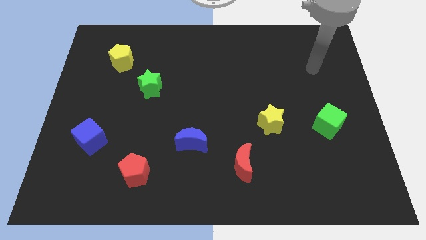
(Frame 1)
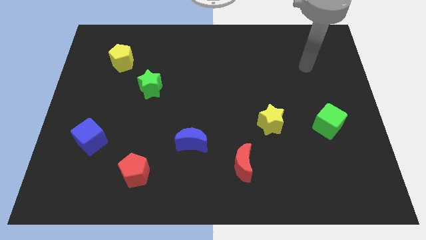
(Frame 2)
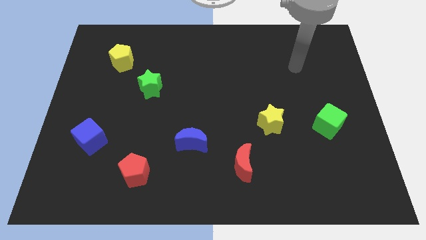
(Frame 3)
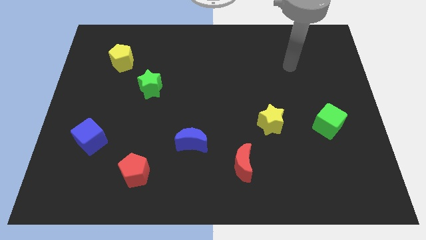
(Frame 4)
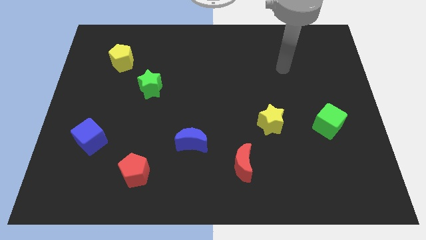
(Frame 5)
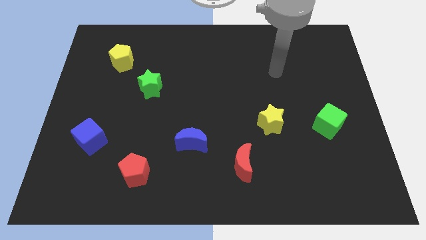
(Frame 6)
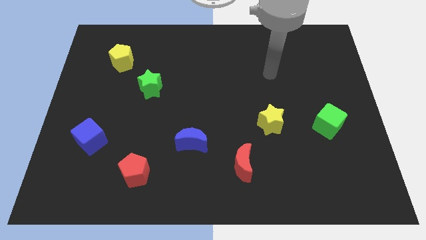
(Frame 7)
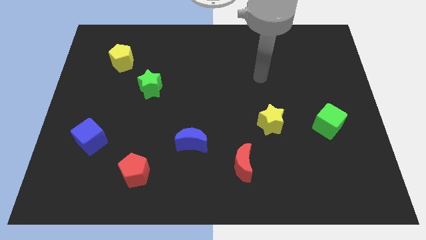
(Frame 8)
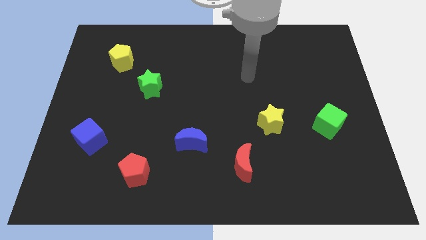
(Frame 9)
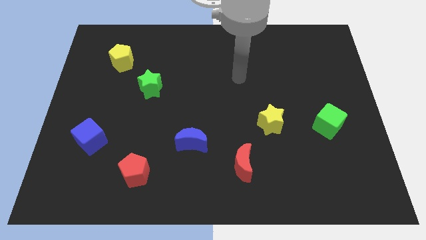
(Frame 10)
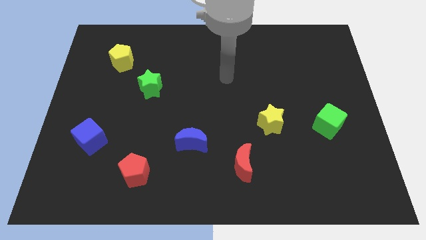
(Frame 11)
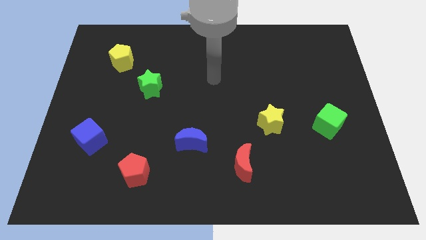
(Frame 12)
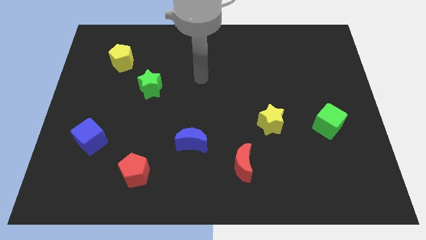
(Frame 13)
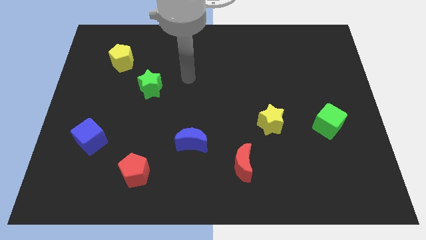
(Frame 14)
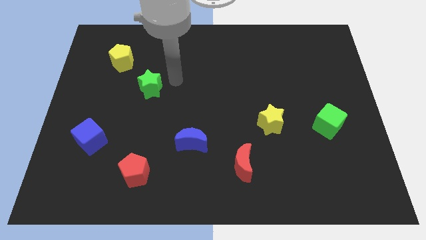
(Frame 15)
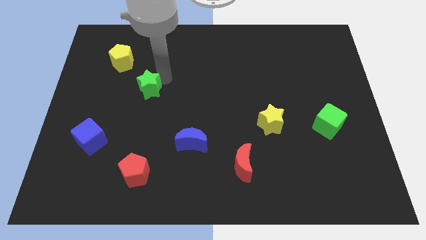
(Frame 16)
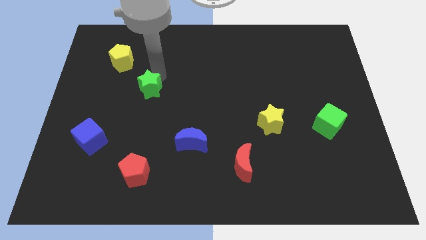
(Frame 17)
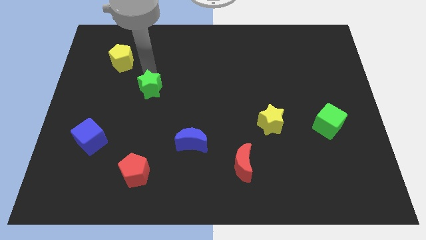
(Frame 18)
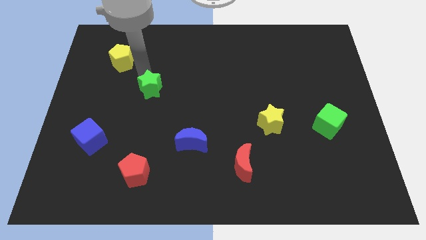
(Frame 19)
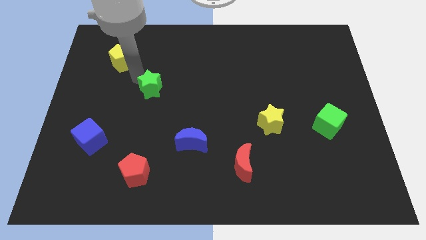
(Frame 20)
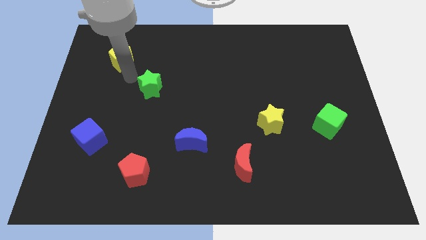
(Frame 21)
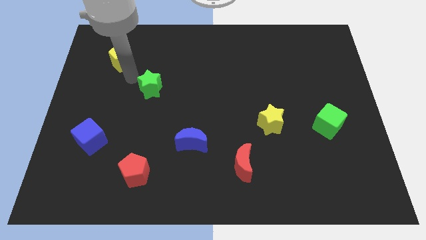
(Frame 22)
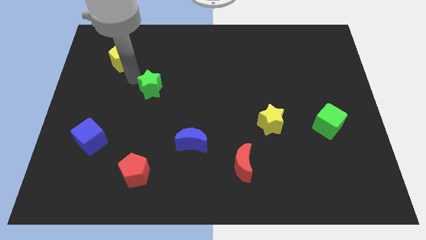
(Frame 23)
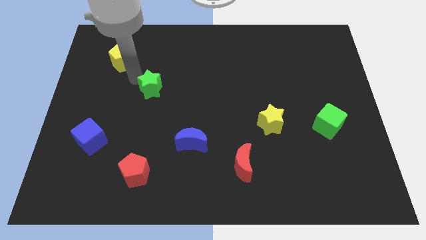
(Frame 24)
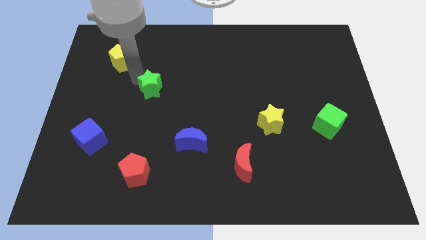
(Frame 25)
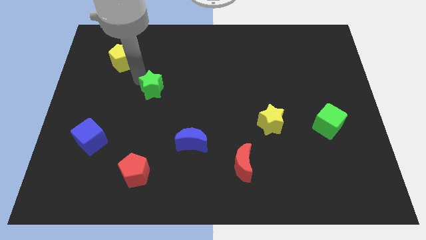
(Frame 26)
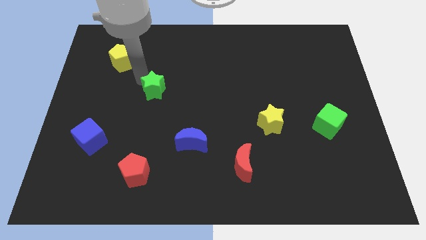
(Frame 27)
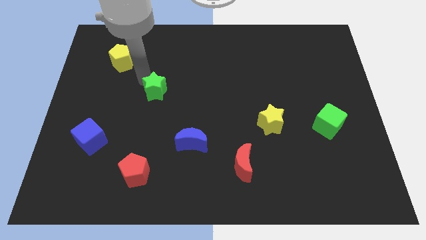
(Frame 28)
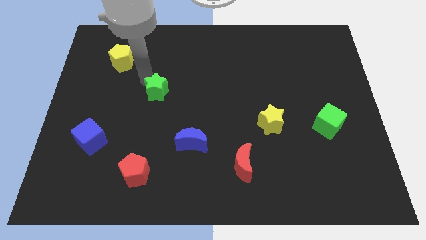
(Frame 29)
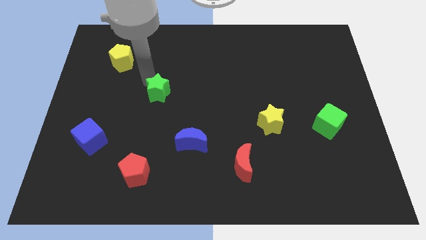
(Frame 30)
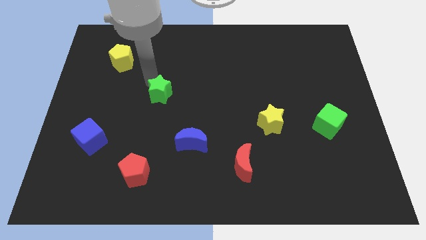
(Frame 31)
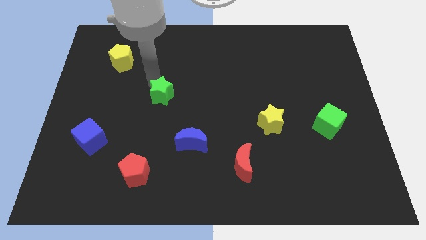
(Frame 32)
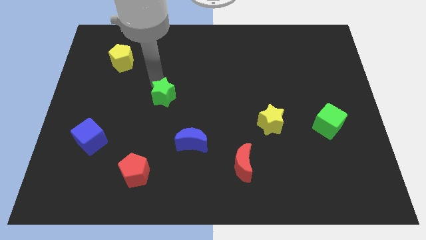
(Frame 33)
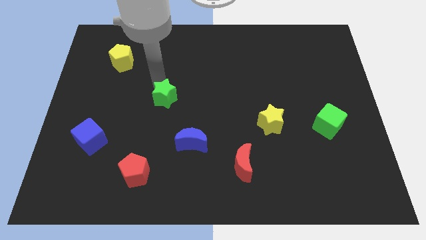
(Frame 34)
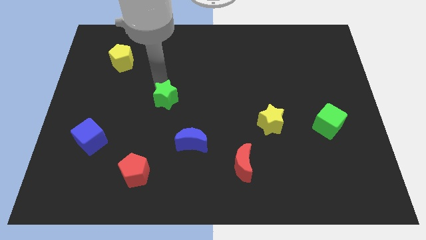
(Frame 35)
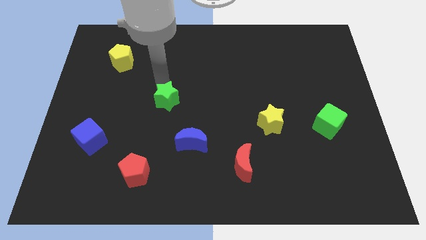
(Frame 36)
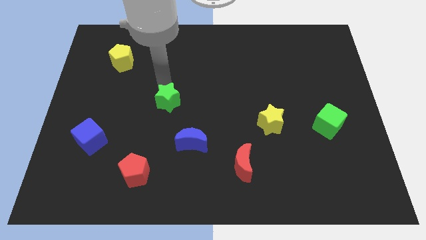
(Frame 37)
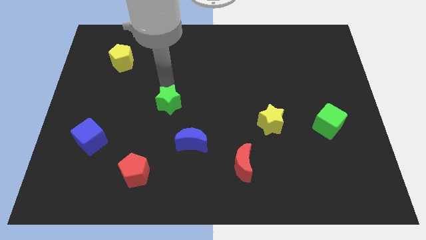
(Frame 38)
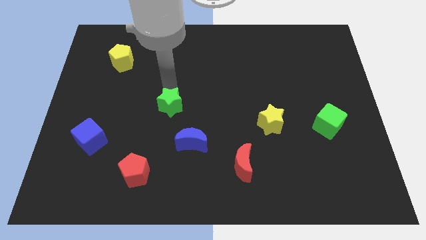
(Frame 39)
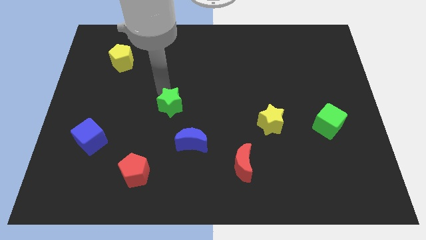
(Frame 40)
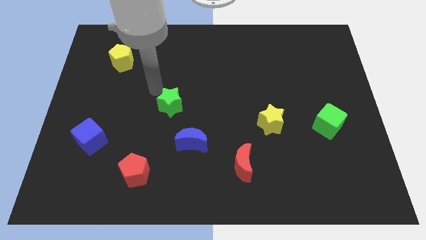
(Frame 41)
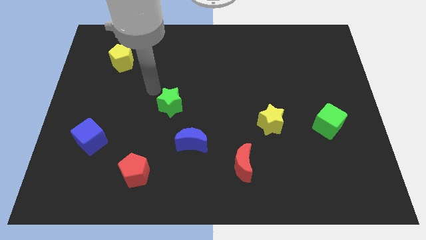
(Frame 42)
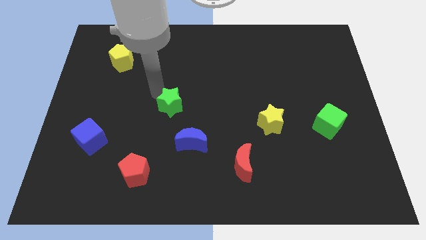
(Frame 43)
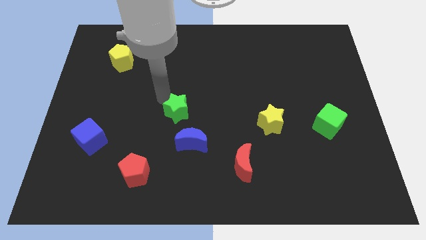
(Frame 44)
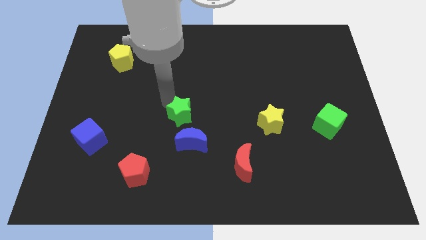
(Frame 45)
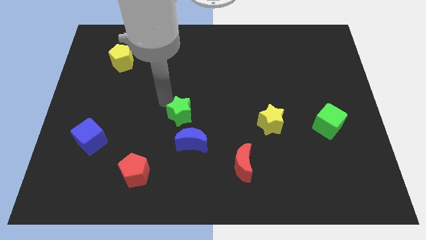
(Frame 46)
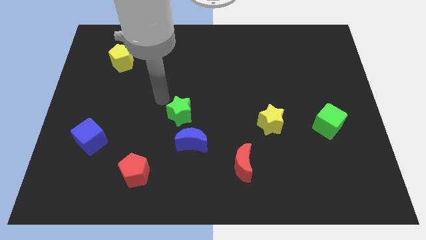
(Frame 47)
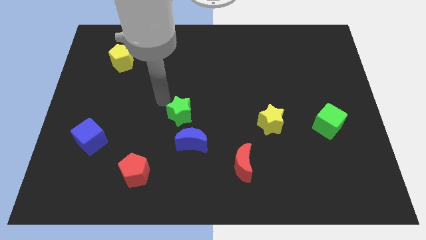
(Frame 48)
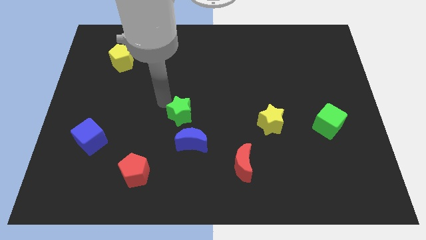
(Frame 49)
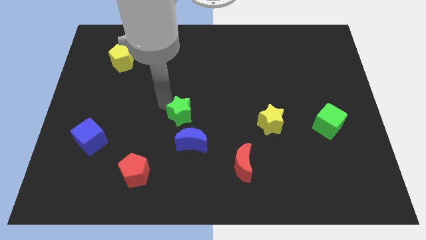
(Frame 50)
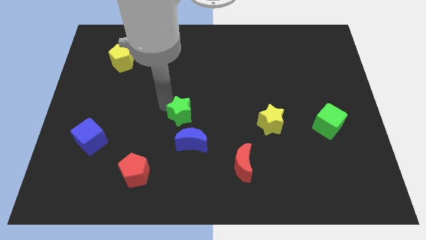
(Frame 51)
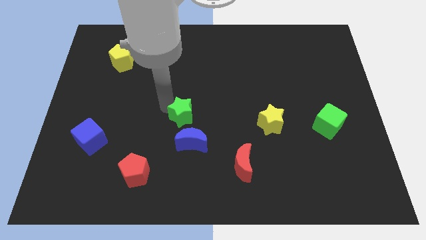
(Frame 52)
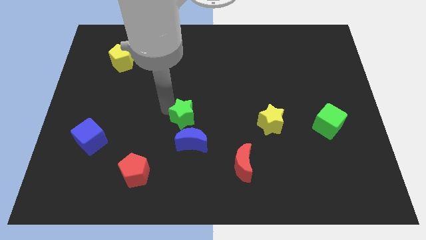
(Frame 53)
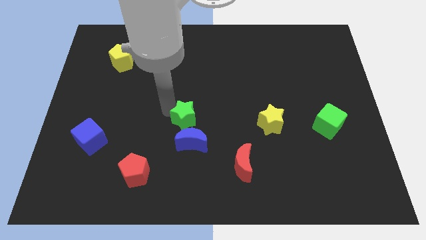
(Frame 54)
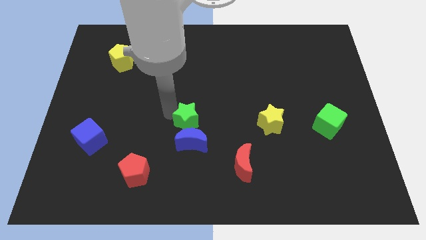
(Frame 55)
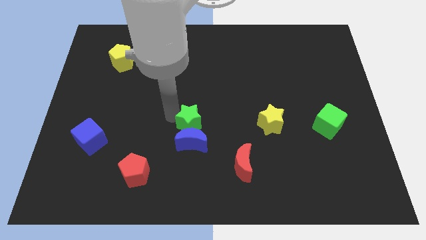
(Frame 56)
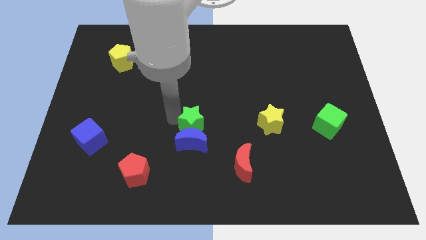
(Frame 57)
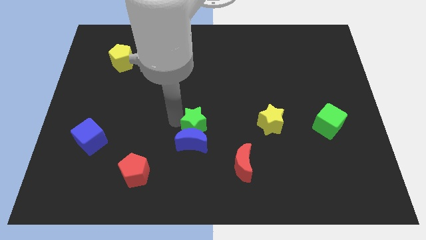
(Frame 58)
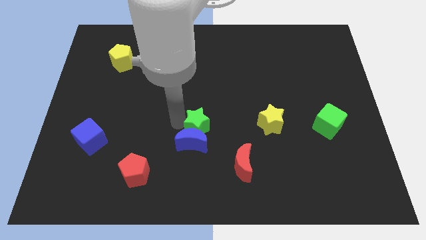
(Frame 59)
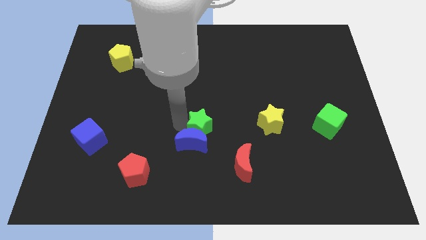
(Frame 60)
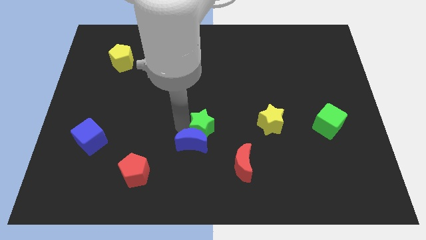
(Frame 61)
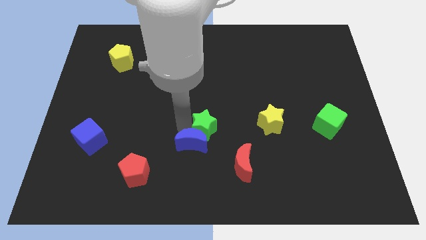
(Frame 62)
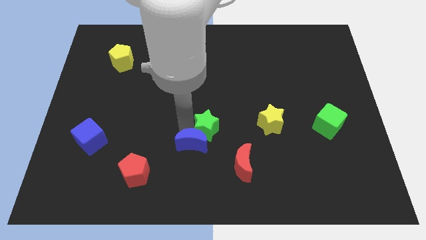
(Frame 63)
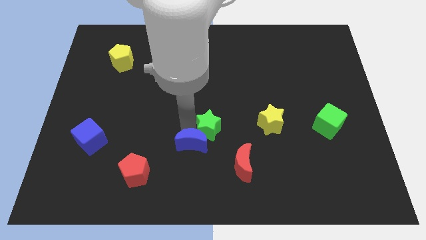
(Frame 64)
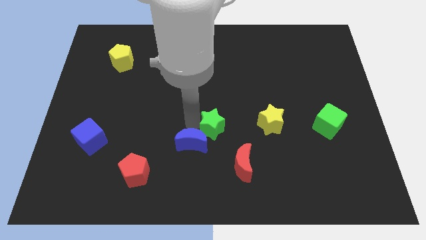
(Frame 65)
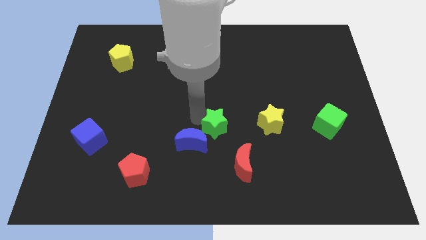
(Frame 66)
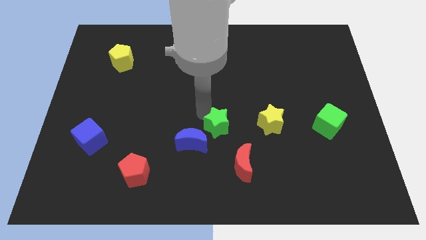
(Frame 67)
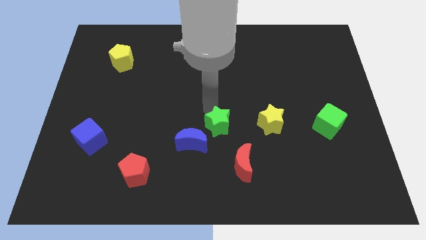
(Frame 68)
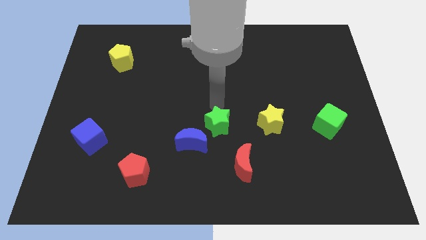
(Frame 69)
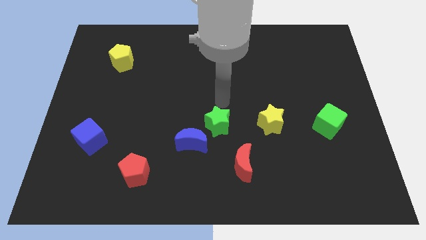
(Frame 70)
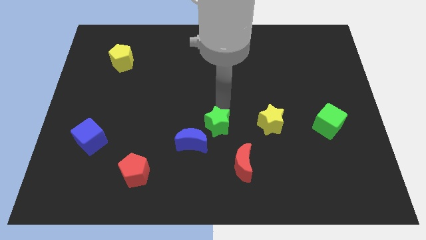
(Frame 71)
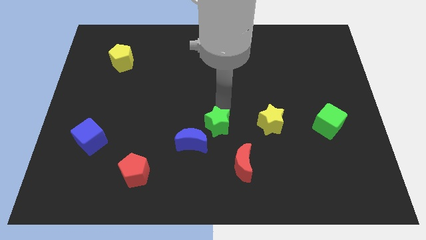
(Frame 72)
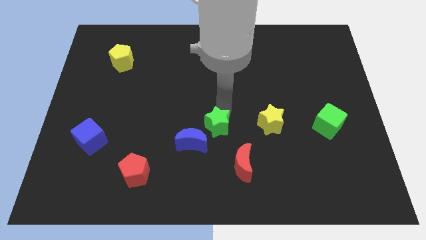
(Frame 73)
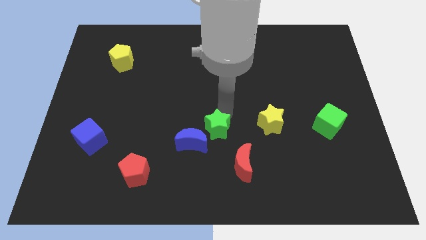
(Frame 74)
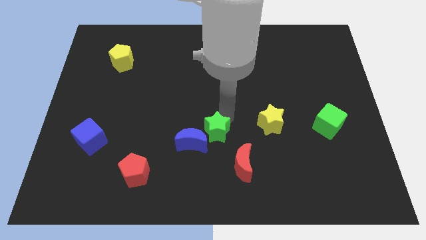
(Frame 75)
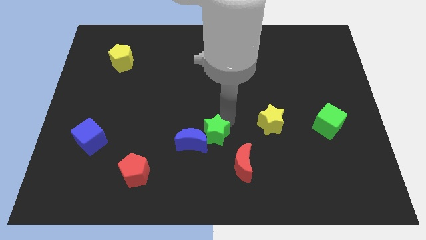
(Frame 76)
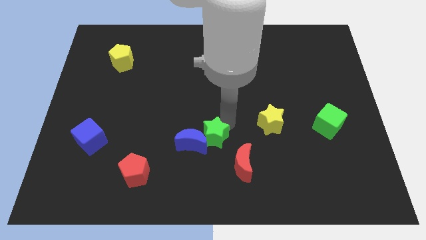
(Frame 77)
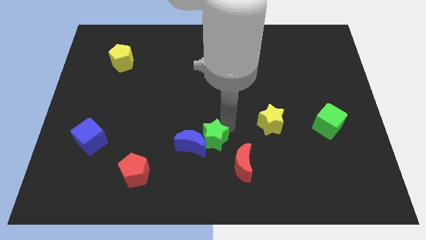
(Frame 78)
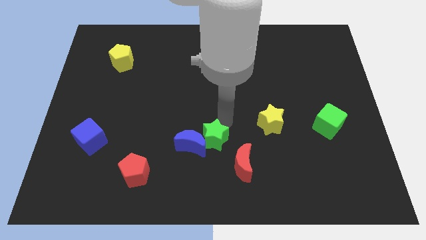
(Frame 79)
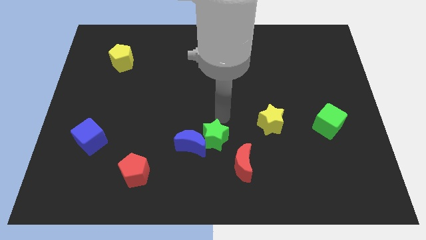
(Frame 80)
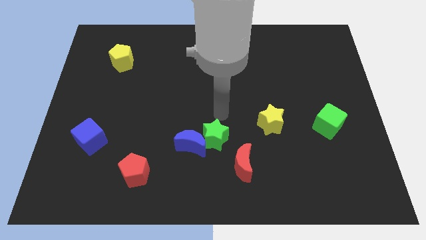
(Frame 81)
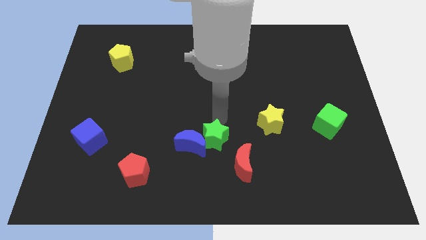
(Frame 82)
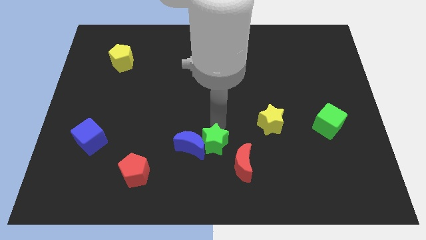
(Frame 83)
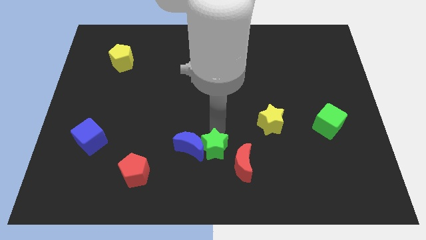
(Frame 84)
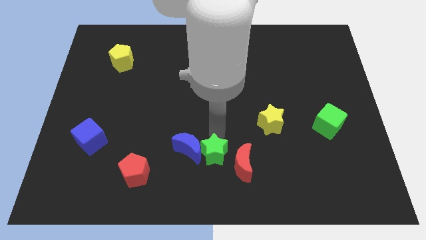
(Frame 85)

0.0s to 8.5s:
slide the green star to the bottom side
